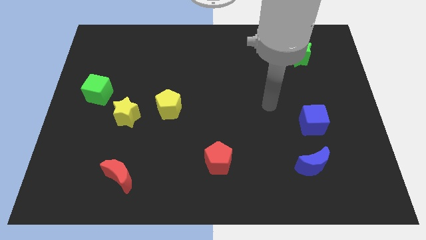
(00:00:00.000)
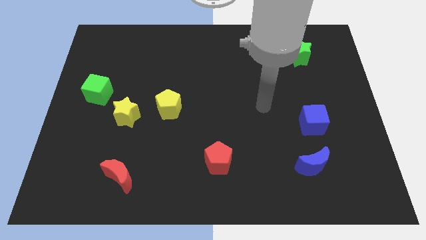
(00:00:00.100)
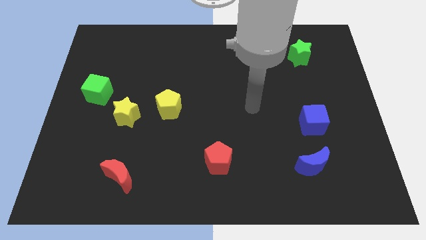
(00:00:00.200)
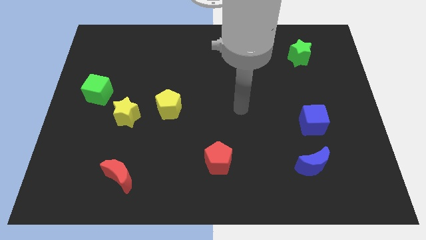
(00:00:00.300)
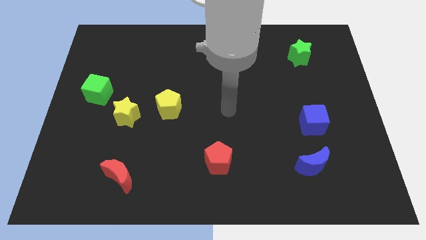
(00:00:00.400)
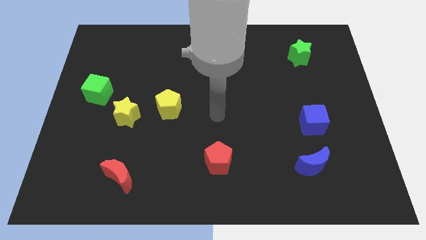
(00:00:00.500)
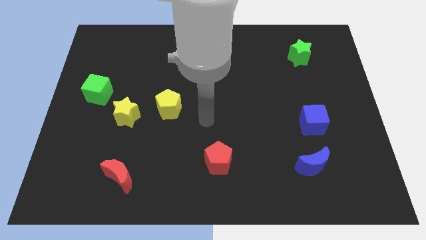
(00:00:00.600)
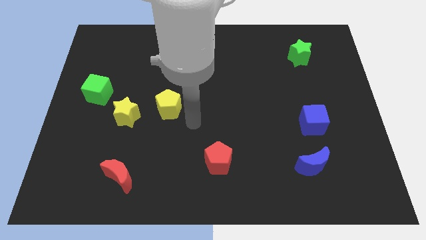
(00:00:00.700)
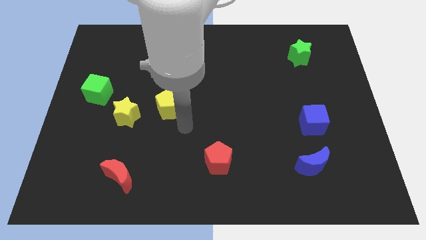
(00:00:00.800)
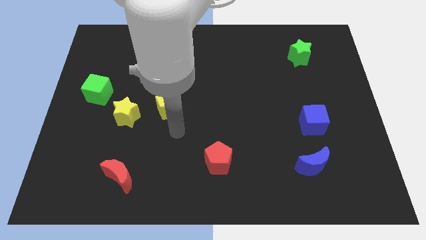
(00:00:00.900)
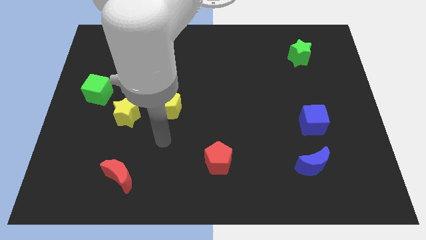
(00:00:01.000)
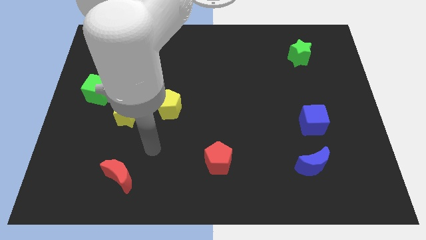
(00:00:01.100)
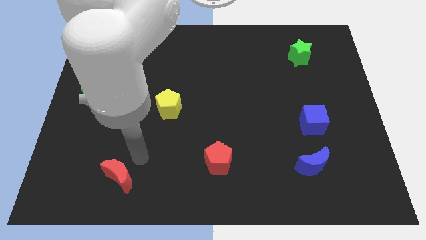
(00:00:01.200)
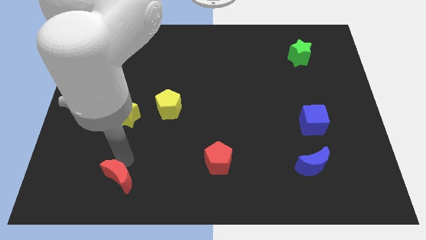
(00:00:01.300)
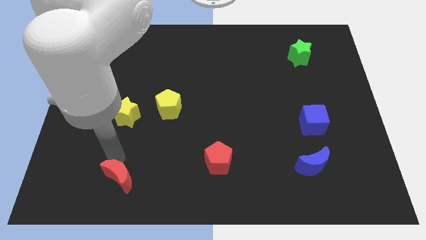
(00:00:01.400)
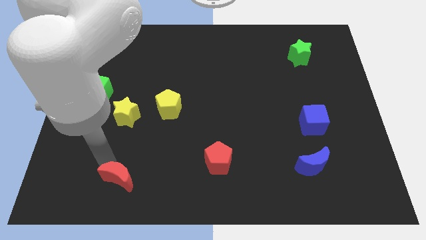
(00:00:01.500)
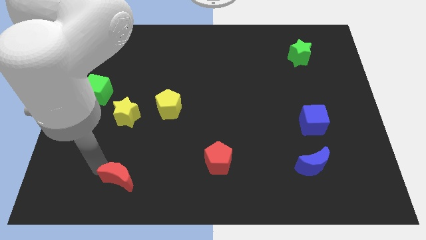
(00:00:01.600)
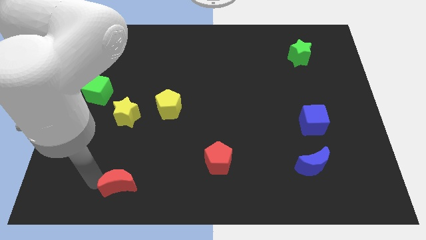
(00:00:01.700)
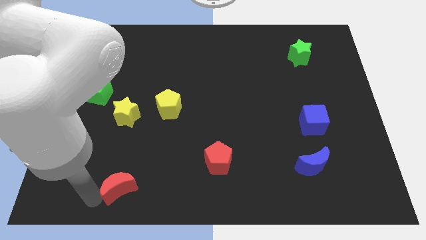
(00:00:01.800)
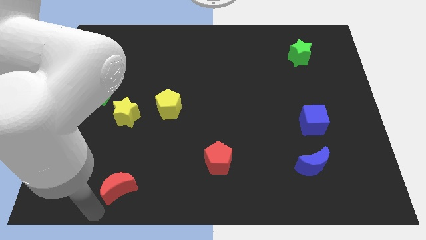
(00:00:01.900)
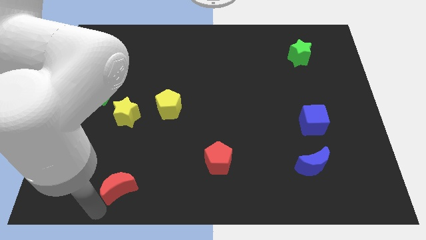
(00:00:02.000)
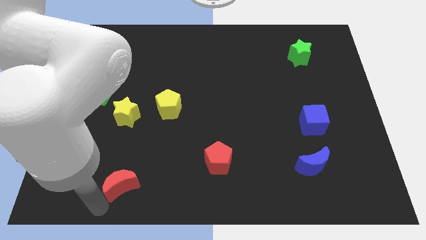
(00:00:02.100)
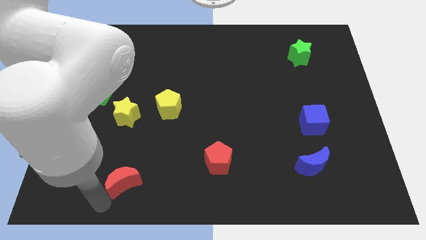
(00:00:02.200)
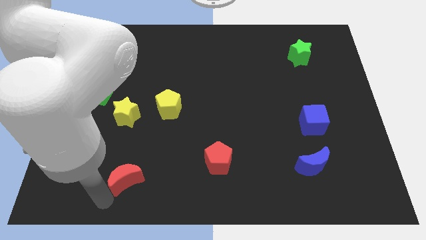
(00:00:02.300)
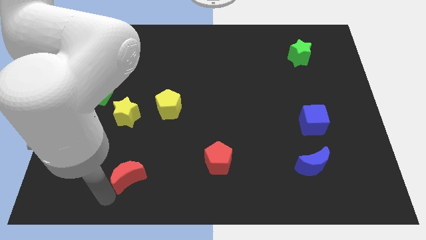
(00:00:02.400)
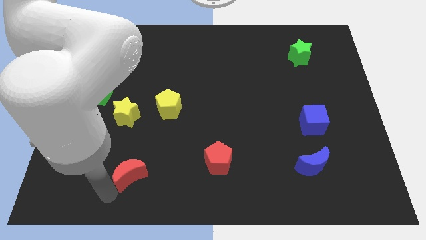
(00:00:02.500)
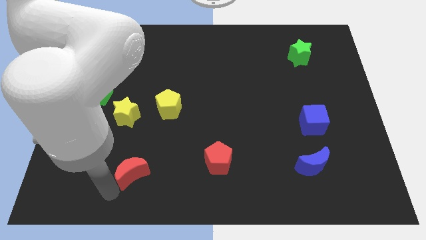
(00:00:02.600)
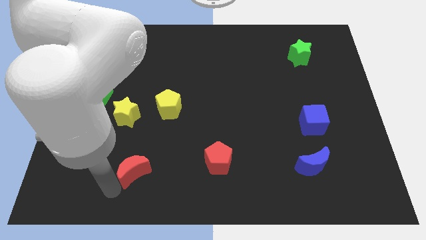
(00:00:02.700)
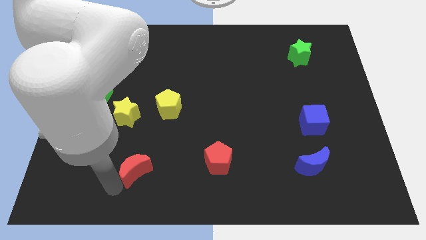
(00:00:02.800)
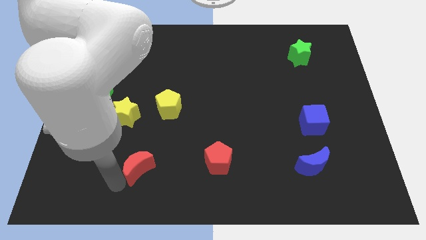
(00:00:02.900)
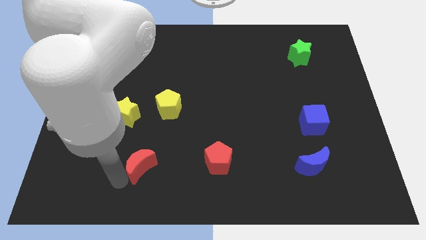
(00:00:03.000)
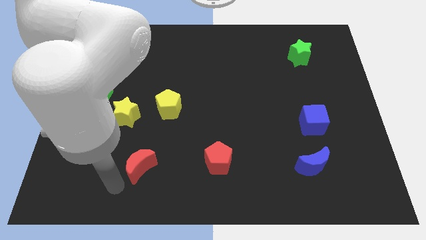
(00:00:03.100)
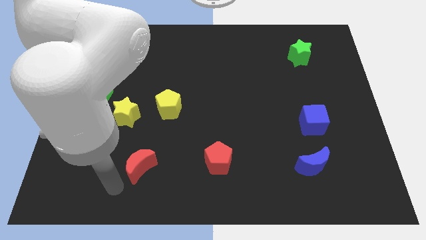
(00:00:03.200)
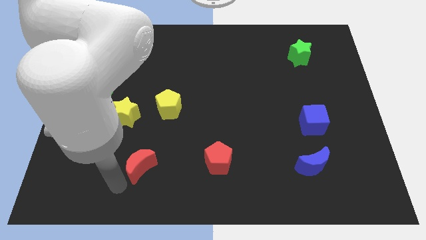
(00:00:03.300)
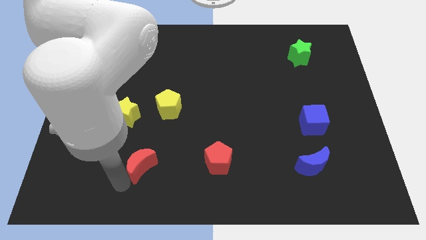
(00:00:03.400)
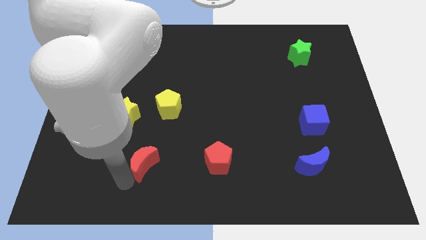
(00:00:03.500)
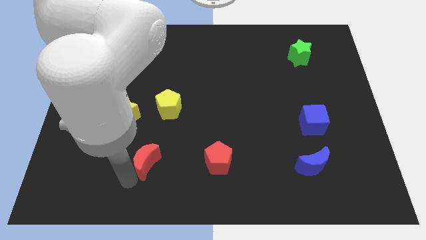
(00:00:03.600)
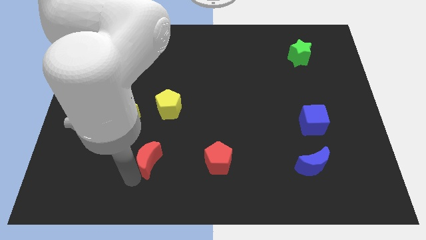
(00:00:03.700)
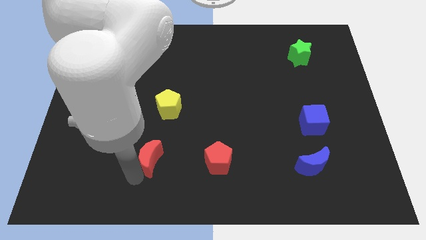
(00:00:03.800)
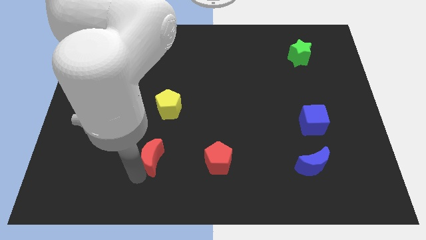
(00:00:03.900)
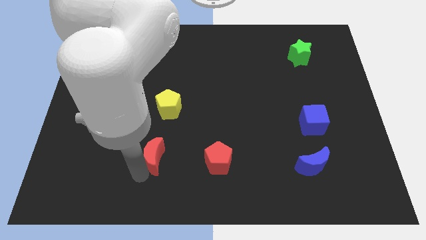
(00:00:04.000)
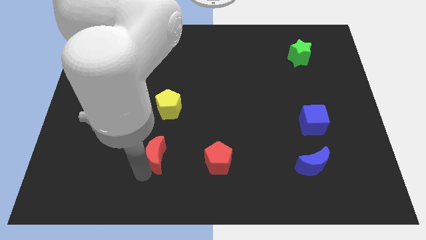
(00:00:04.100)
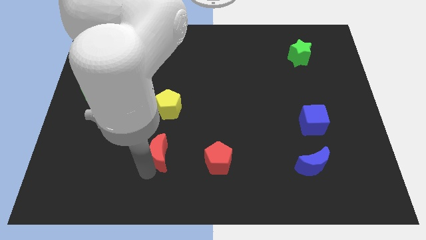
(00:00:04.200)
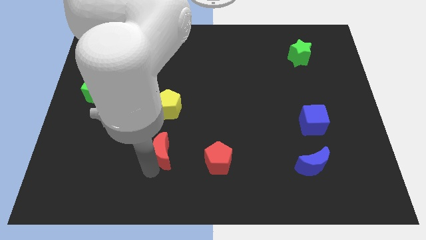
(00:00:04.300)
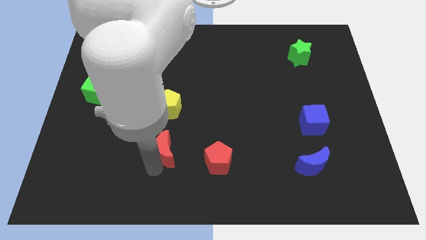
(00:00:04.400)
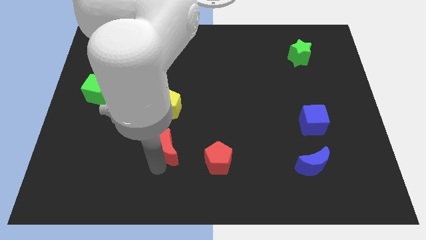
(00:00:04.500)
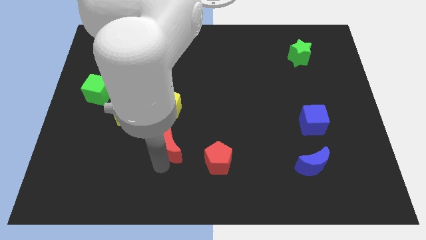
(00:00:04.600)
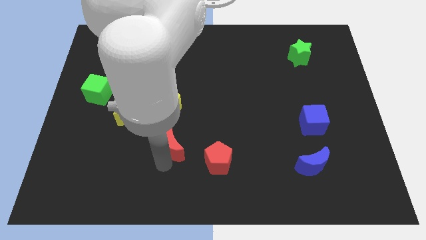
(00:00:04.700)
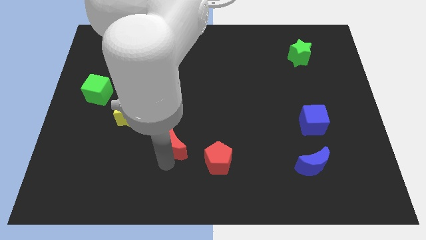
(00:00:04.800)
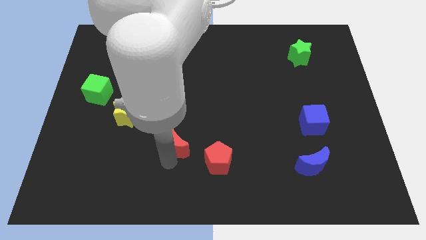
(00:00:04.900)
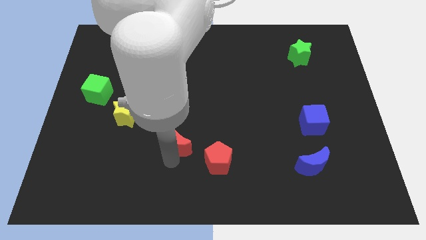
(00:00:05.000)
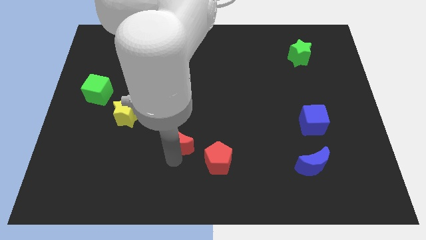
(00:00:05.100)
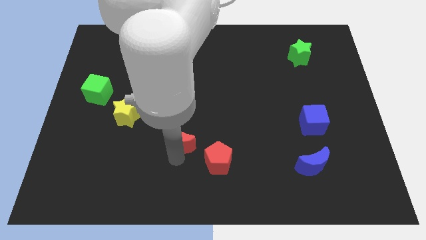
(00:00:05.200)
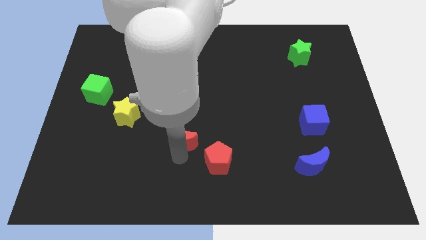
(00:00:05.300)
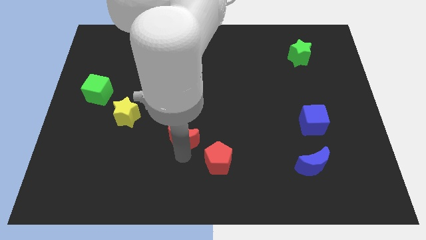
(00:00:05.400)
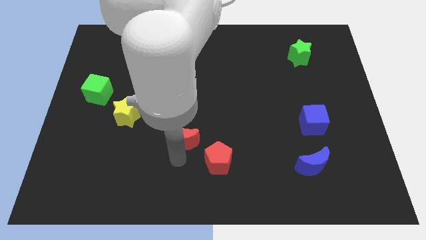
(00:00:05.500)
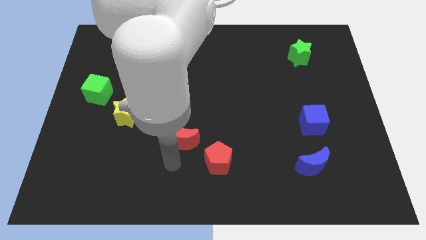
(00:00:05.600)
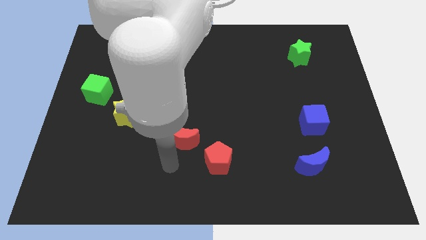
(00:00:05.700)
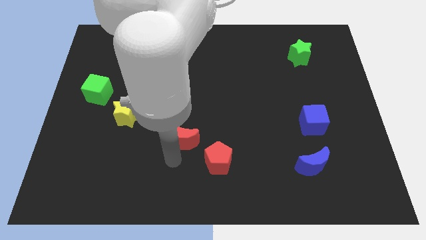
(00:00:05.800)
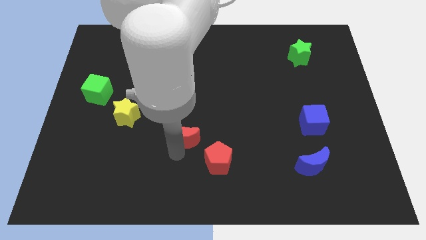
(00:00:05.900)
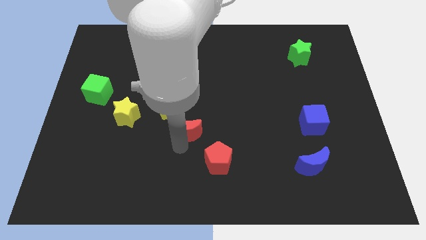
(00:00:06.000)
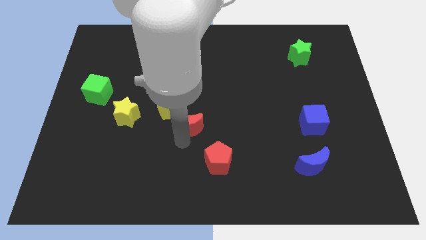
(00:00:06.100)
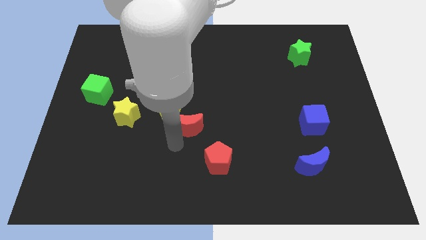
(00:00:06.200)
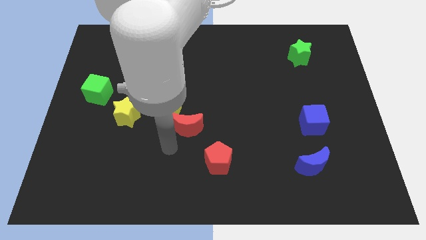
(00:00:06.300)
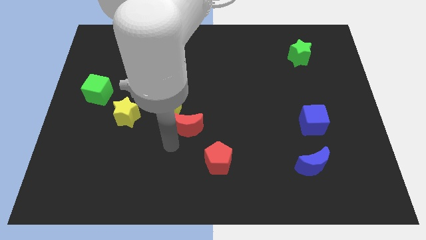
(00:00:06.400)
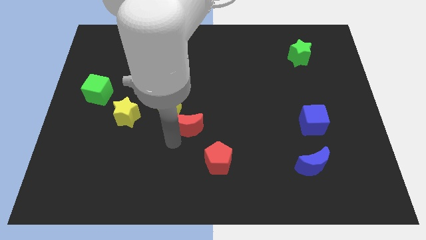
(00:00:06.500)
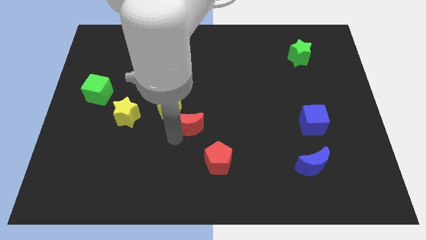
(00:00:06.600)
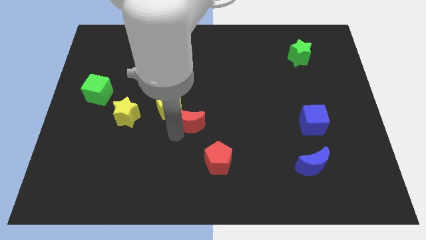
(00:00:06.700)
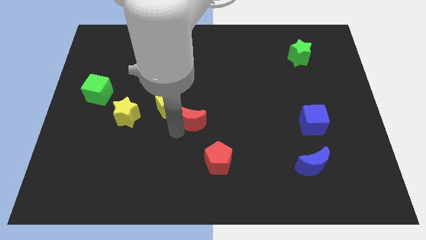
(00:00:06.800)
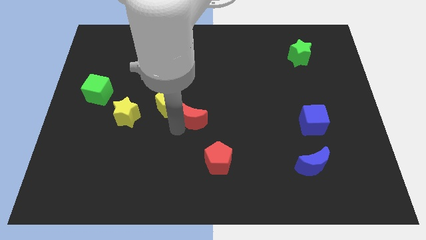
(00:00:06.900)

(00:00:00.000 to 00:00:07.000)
move the red moon up and then to the right

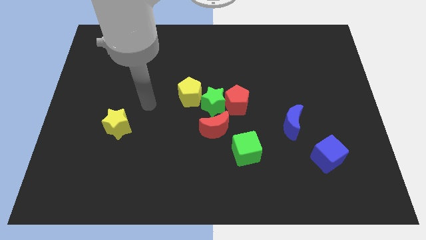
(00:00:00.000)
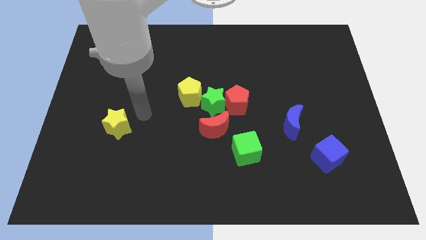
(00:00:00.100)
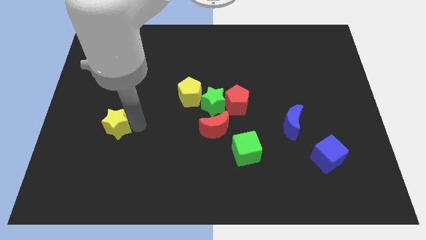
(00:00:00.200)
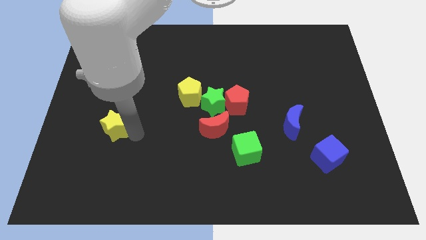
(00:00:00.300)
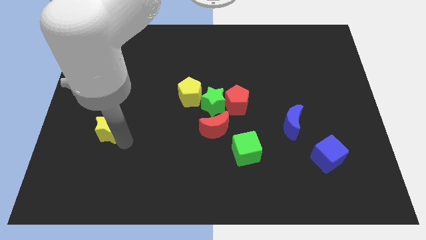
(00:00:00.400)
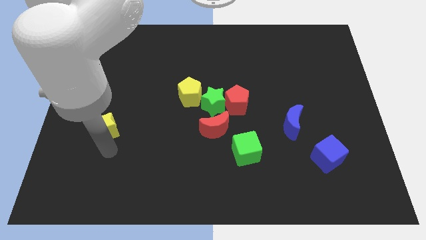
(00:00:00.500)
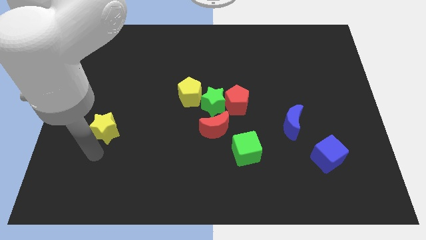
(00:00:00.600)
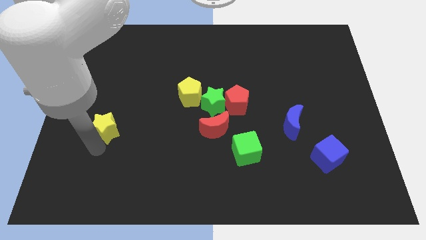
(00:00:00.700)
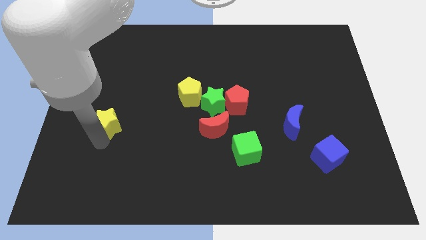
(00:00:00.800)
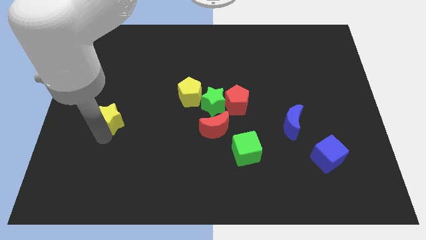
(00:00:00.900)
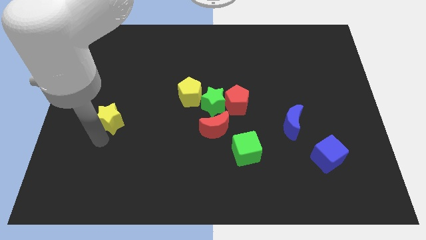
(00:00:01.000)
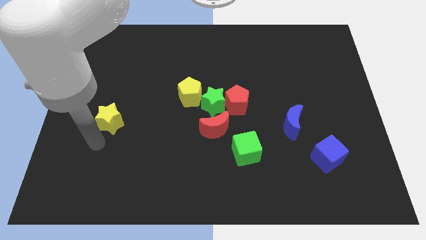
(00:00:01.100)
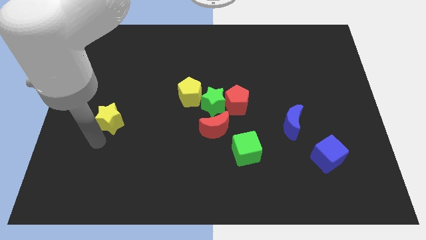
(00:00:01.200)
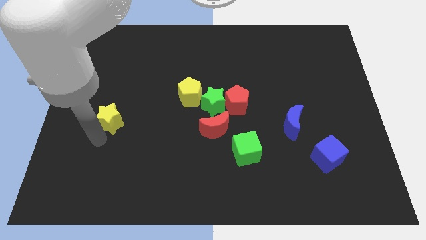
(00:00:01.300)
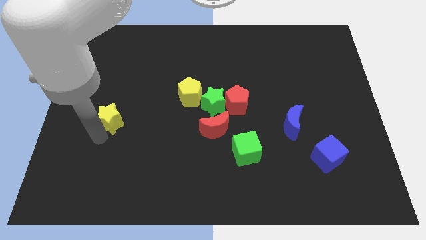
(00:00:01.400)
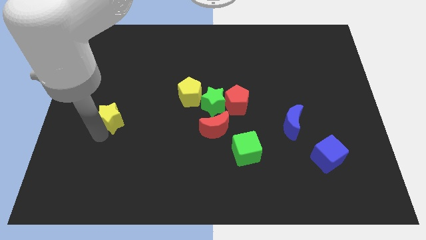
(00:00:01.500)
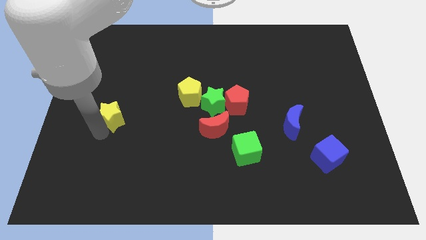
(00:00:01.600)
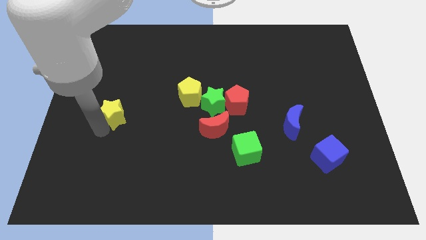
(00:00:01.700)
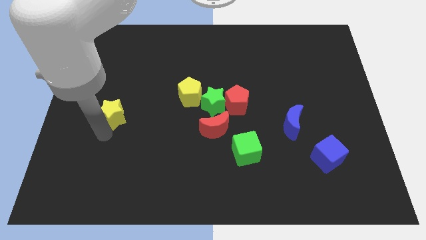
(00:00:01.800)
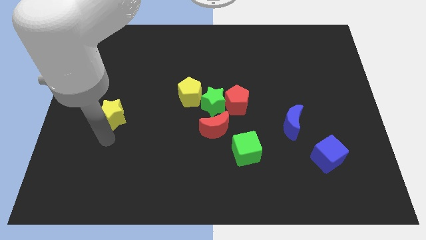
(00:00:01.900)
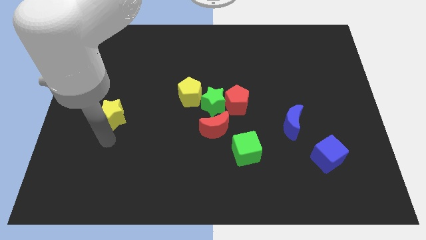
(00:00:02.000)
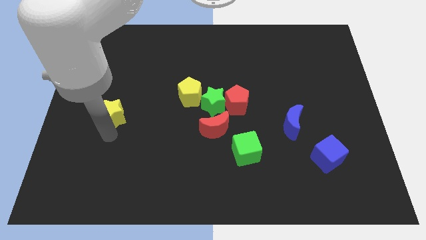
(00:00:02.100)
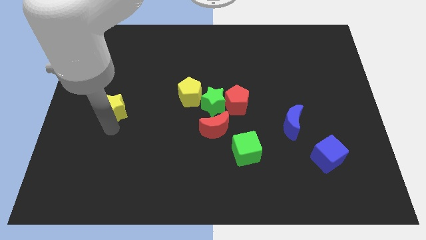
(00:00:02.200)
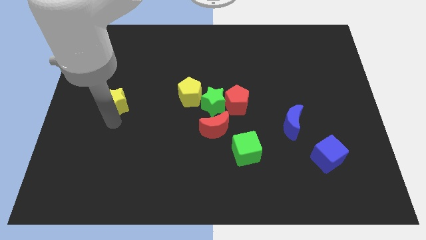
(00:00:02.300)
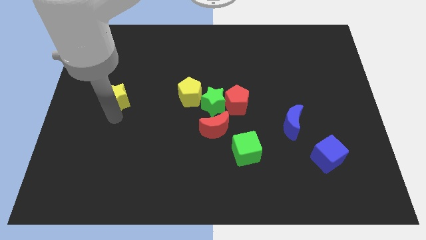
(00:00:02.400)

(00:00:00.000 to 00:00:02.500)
slightly push the yellow star up
